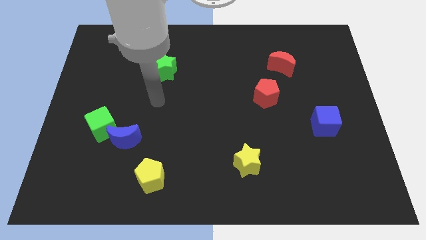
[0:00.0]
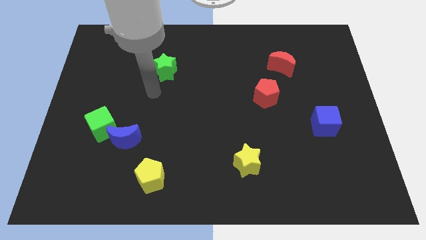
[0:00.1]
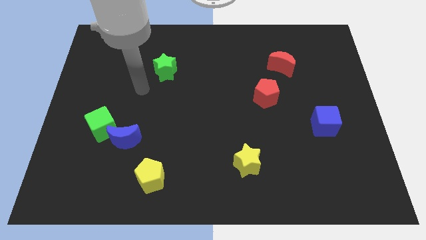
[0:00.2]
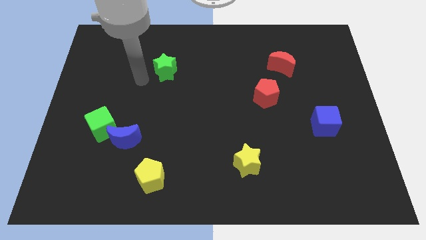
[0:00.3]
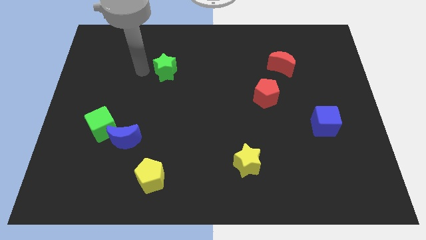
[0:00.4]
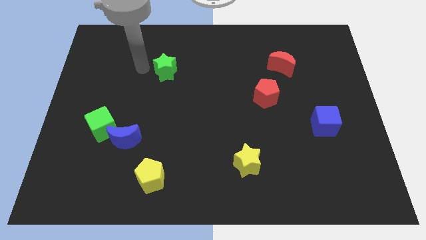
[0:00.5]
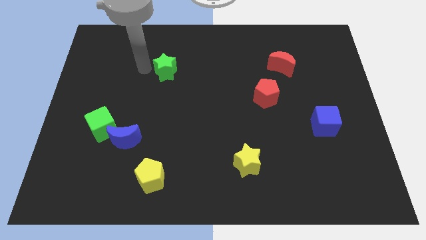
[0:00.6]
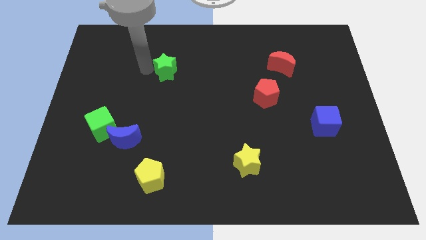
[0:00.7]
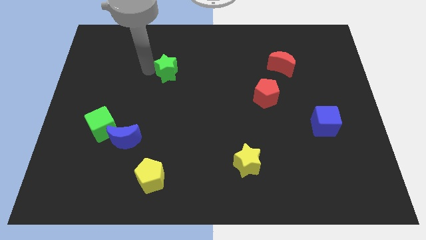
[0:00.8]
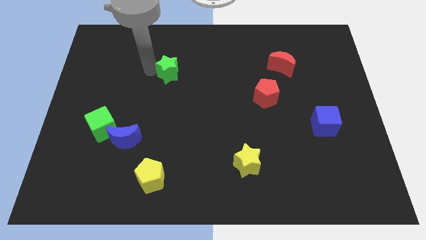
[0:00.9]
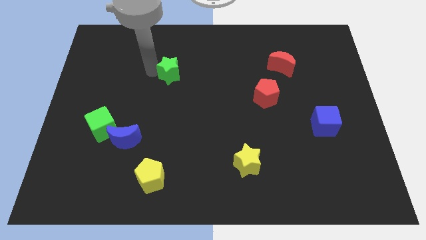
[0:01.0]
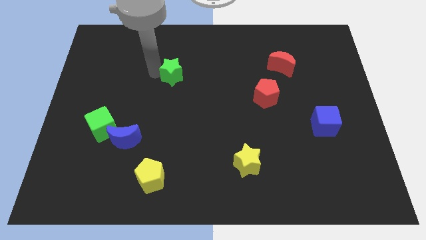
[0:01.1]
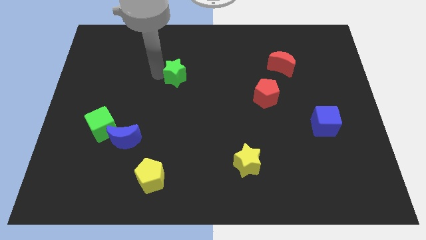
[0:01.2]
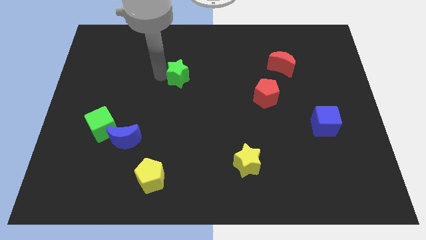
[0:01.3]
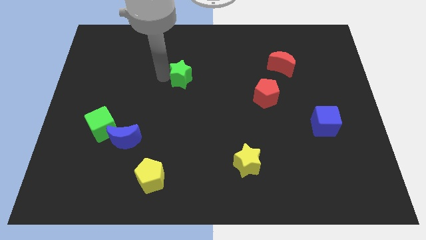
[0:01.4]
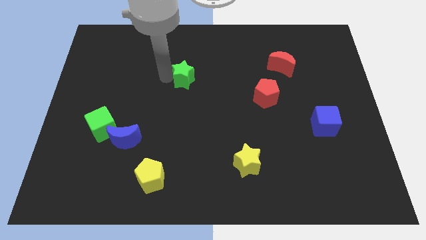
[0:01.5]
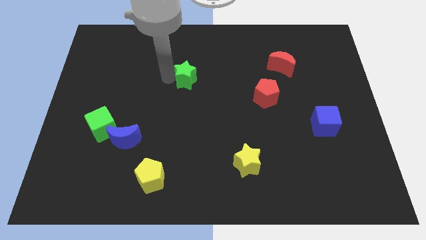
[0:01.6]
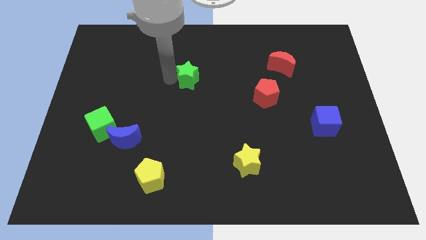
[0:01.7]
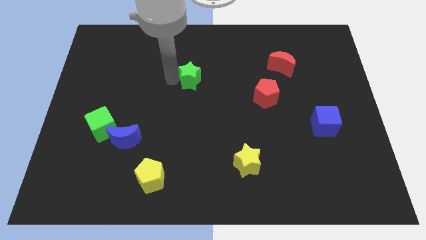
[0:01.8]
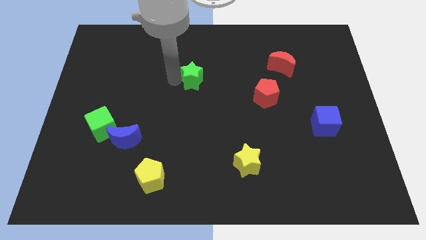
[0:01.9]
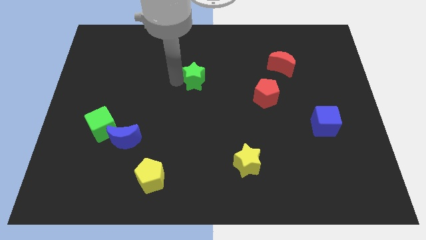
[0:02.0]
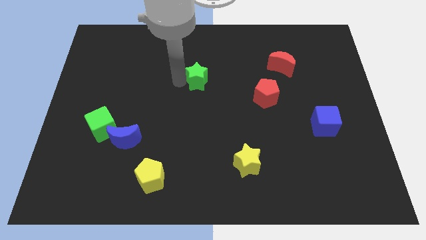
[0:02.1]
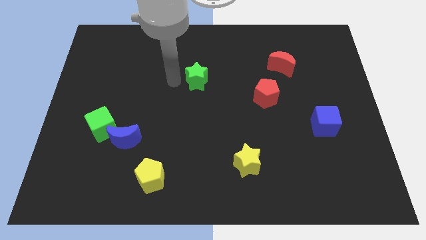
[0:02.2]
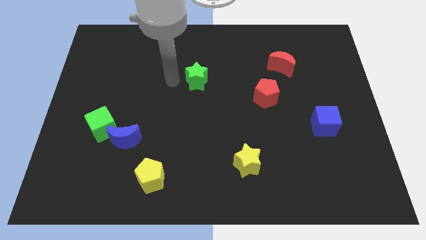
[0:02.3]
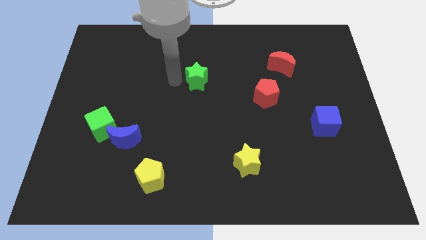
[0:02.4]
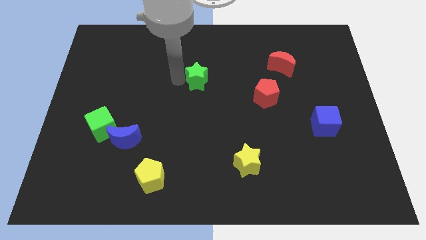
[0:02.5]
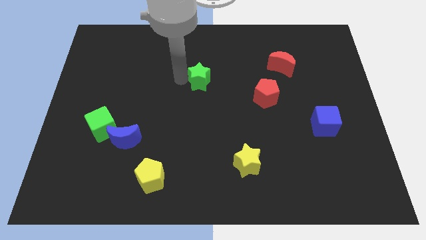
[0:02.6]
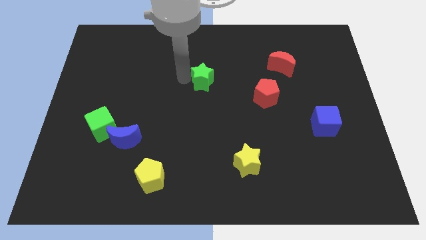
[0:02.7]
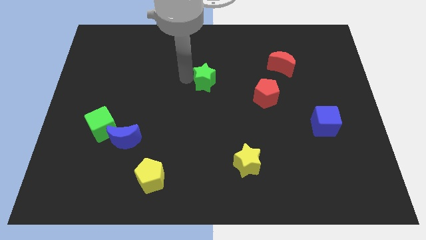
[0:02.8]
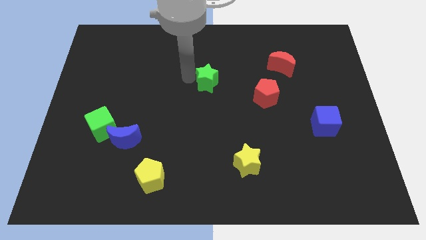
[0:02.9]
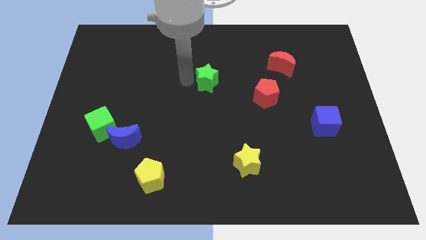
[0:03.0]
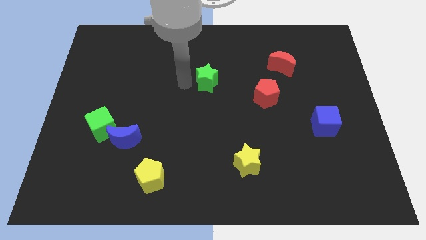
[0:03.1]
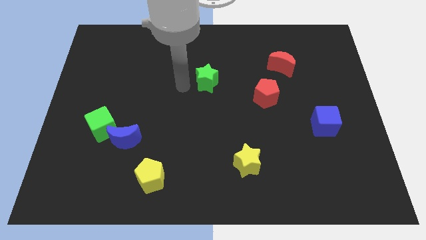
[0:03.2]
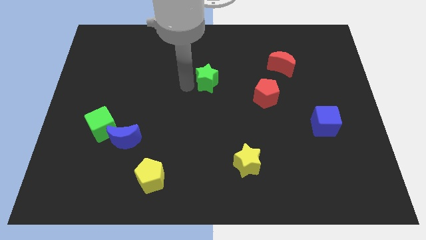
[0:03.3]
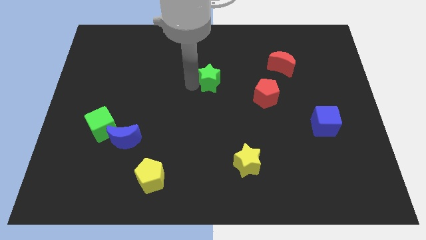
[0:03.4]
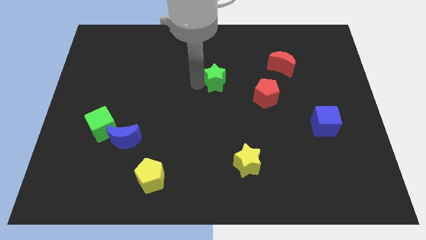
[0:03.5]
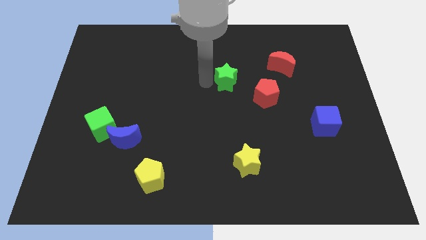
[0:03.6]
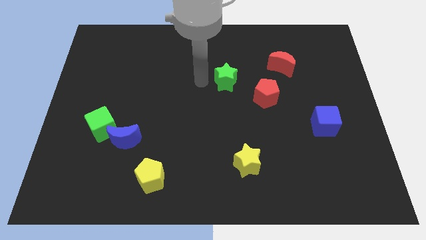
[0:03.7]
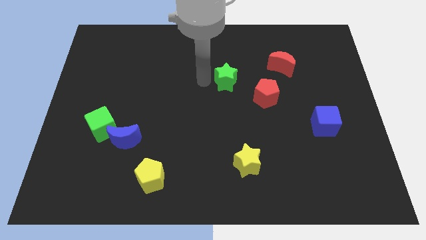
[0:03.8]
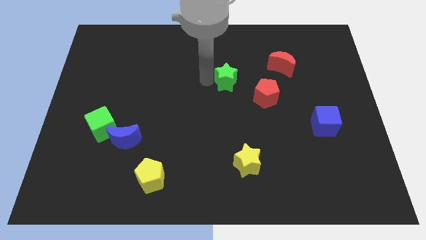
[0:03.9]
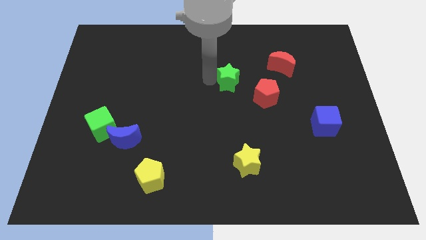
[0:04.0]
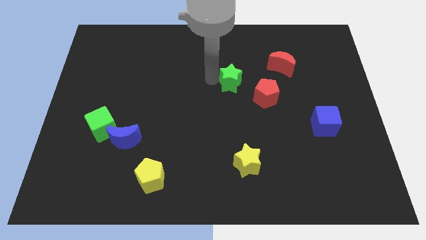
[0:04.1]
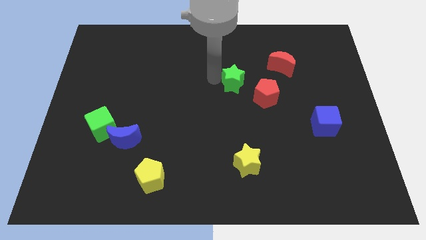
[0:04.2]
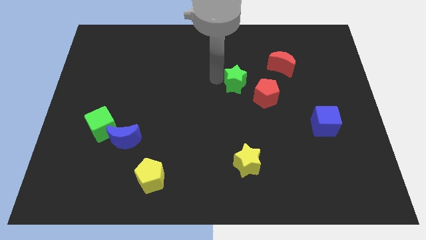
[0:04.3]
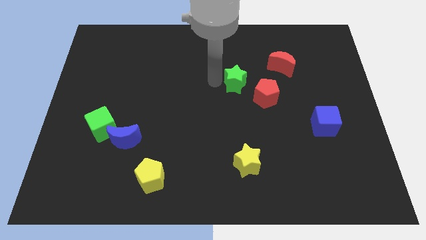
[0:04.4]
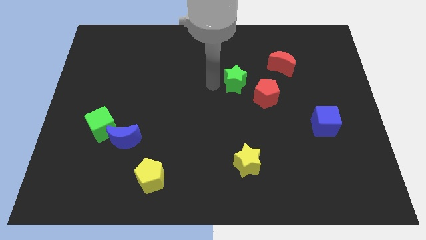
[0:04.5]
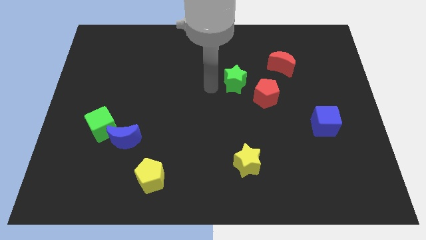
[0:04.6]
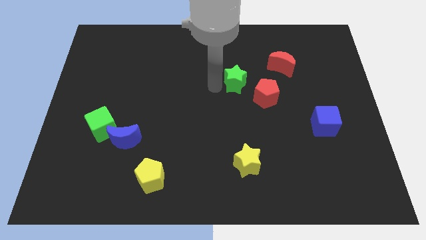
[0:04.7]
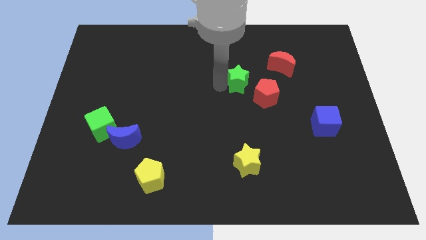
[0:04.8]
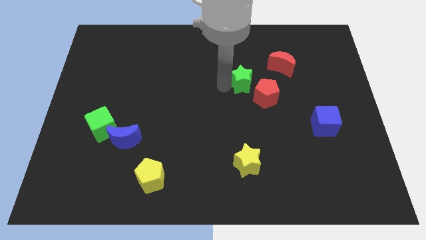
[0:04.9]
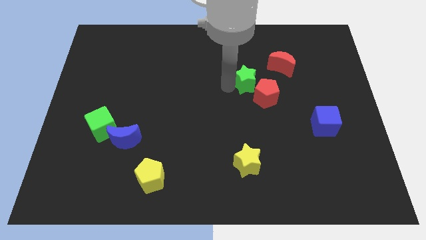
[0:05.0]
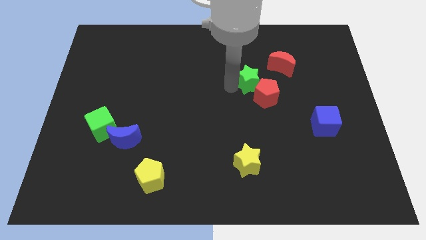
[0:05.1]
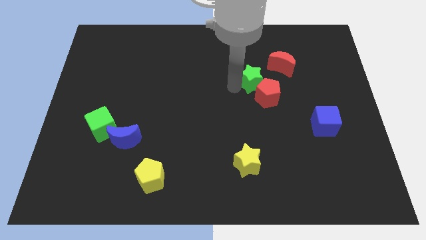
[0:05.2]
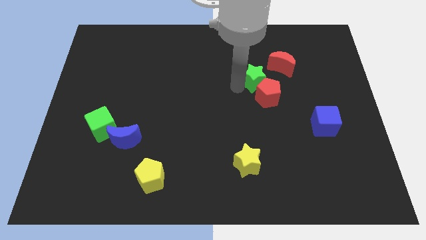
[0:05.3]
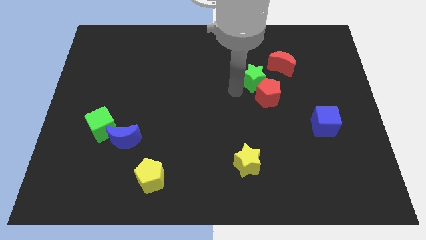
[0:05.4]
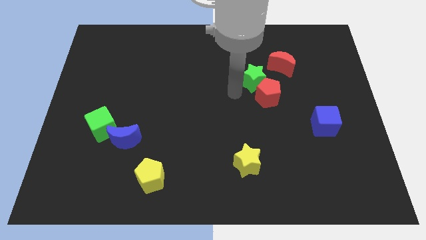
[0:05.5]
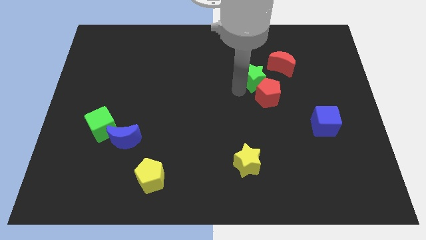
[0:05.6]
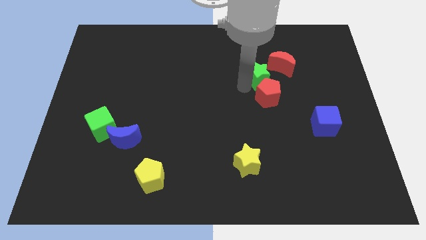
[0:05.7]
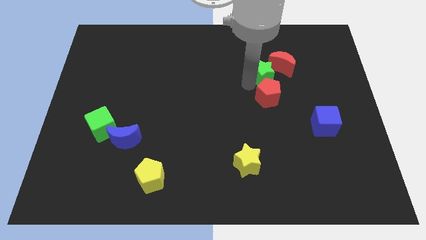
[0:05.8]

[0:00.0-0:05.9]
put the green star towards the red moon

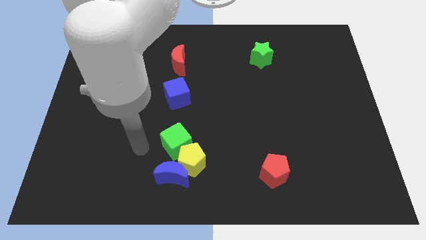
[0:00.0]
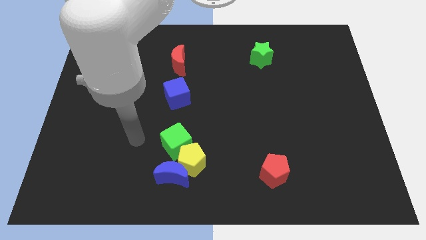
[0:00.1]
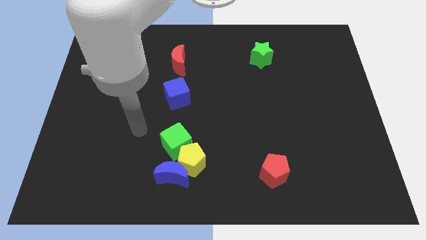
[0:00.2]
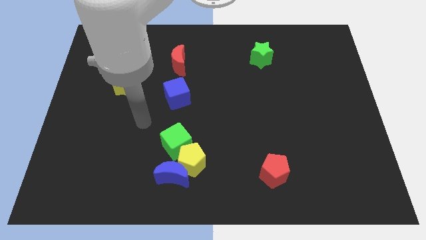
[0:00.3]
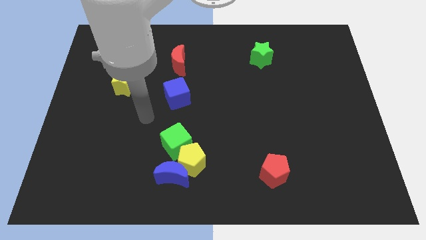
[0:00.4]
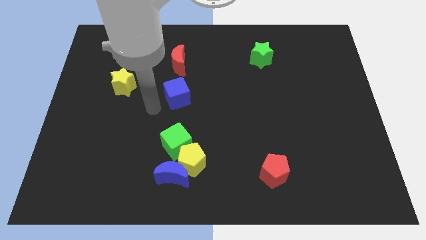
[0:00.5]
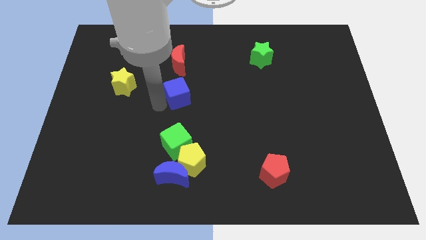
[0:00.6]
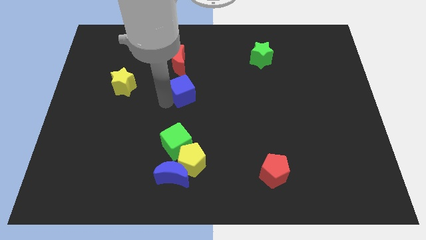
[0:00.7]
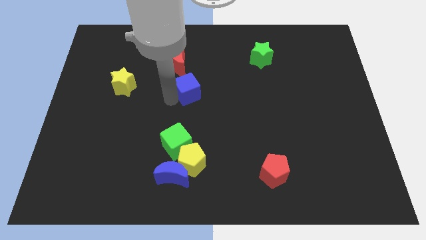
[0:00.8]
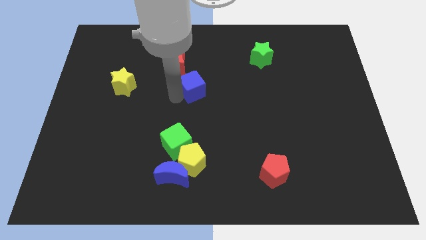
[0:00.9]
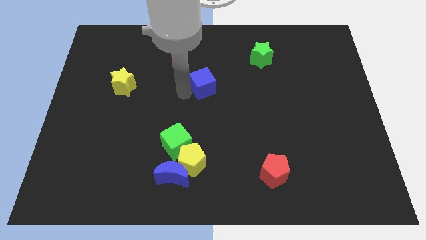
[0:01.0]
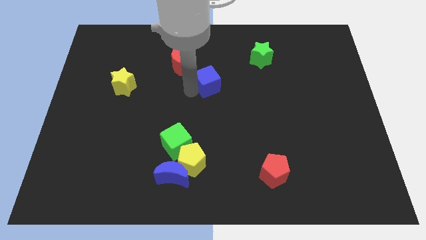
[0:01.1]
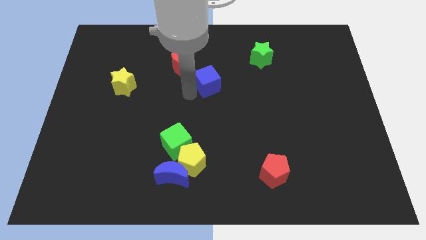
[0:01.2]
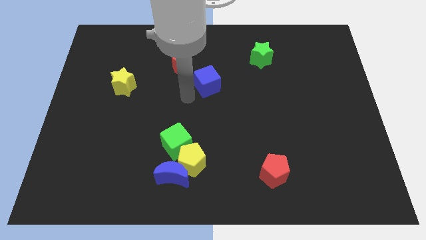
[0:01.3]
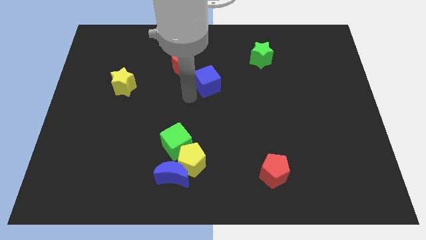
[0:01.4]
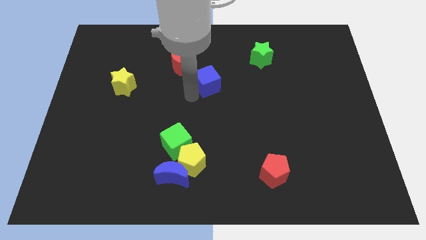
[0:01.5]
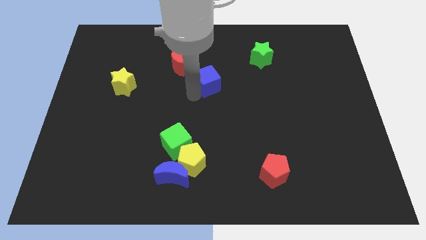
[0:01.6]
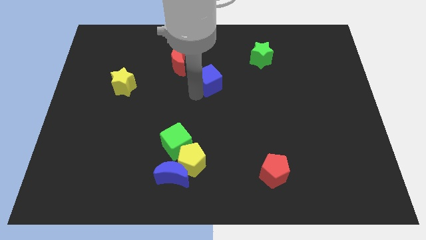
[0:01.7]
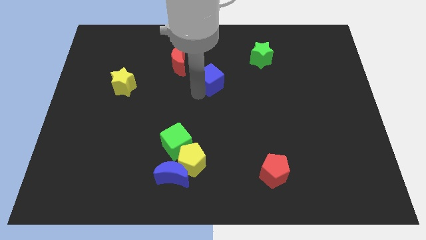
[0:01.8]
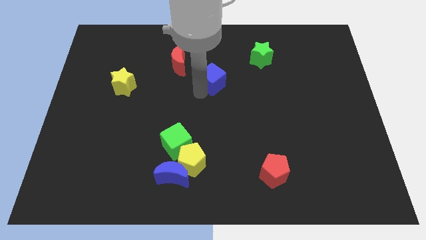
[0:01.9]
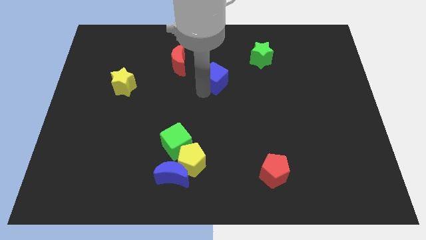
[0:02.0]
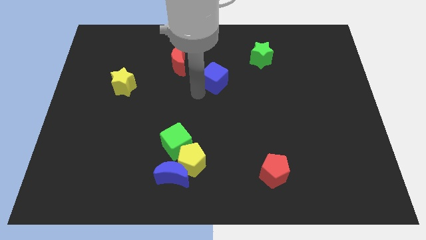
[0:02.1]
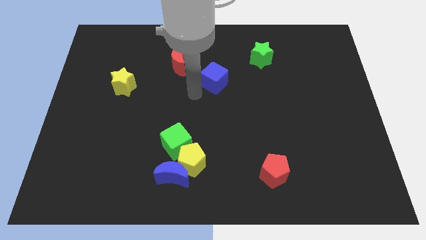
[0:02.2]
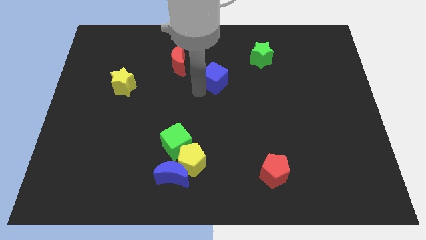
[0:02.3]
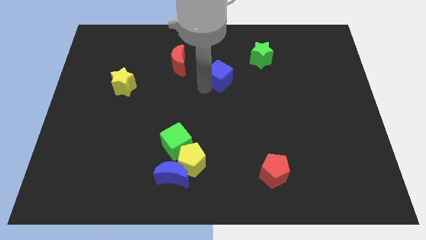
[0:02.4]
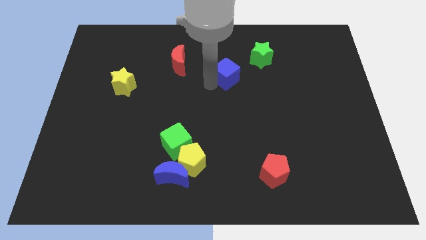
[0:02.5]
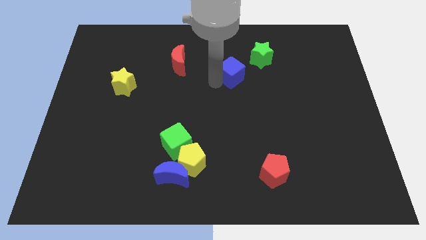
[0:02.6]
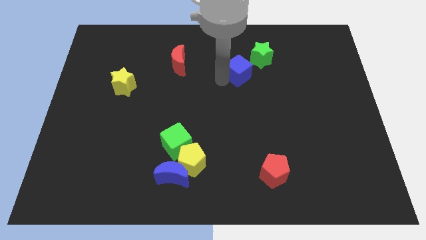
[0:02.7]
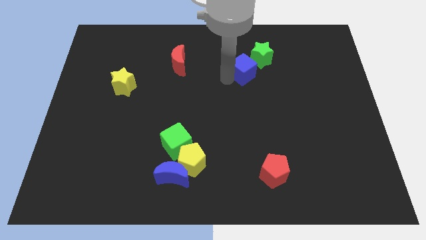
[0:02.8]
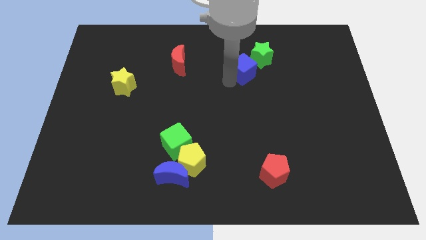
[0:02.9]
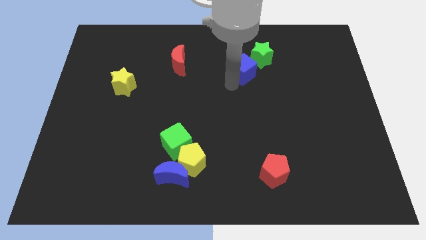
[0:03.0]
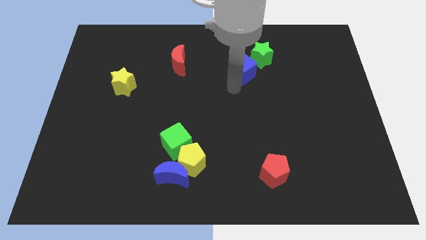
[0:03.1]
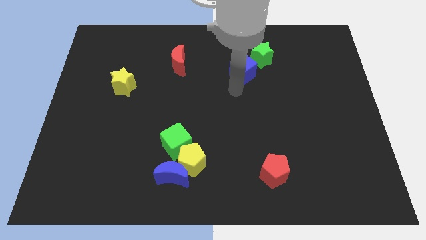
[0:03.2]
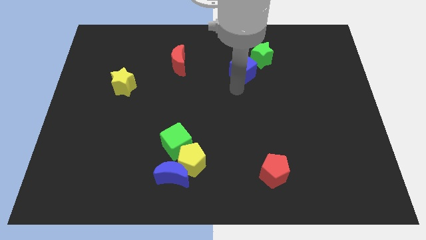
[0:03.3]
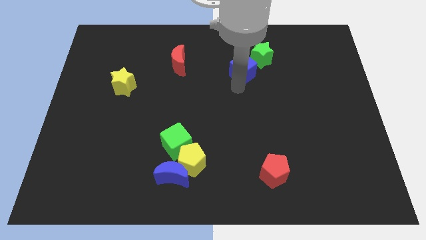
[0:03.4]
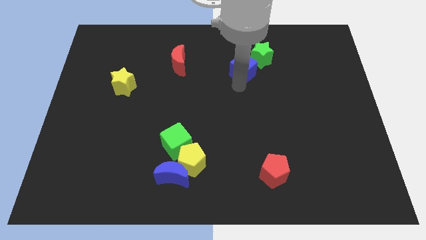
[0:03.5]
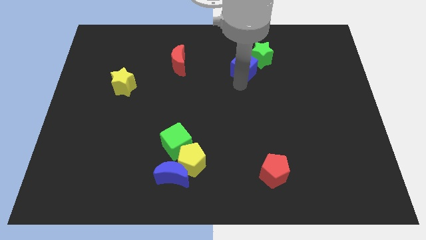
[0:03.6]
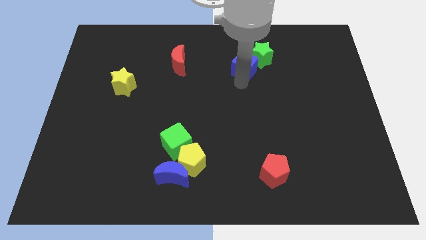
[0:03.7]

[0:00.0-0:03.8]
put the blue cube to the green star
